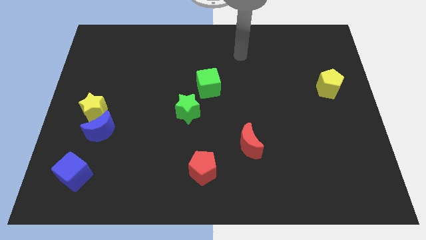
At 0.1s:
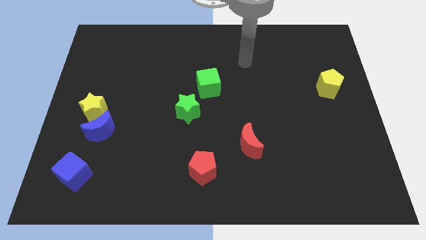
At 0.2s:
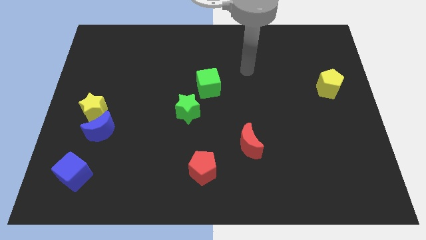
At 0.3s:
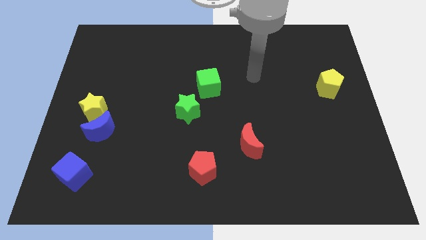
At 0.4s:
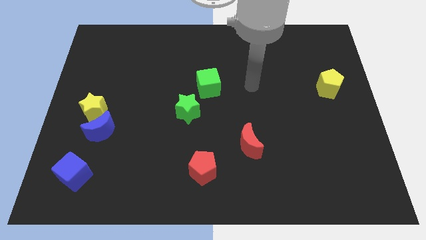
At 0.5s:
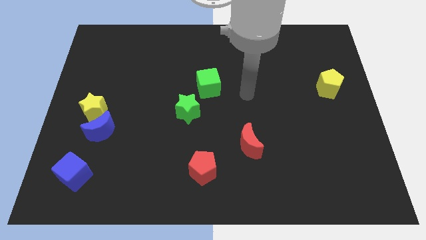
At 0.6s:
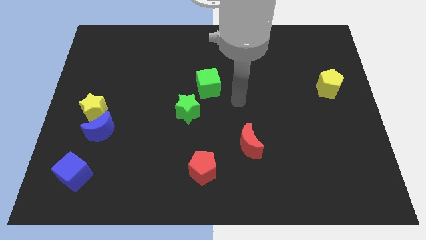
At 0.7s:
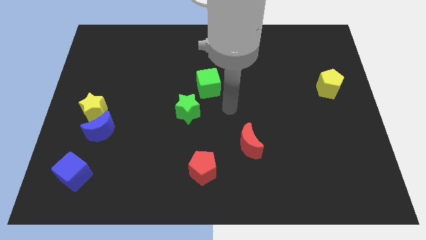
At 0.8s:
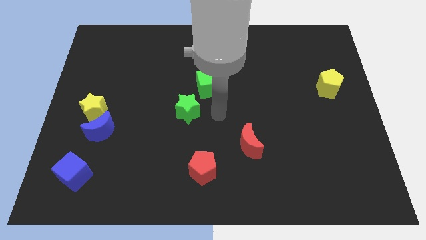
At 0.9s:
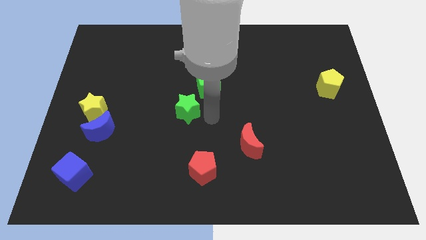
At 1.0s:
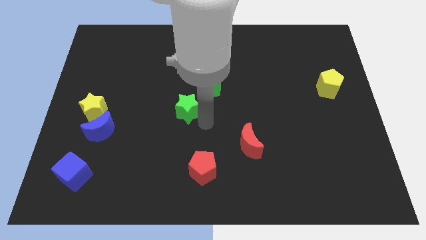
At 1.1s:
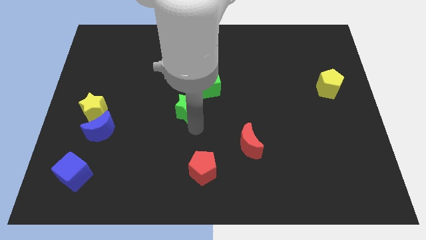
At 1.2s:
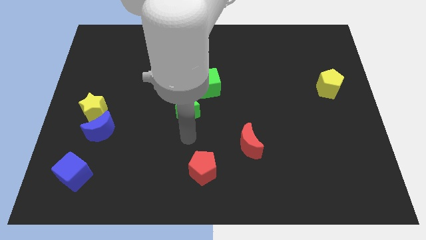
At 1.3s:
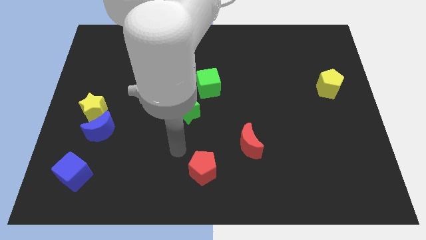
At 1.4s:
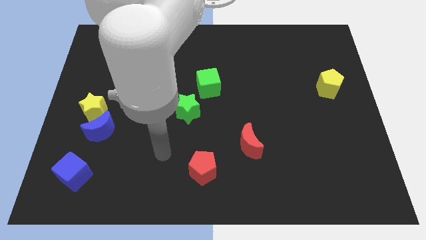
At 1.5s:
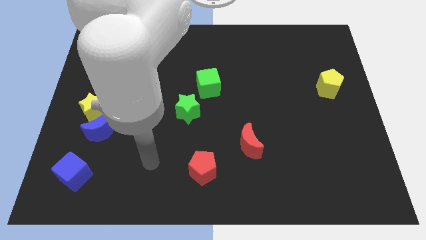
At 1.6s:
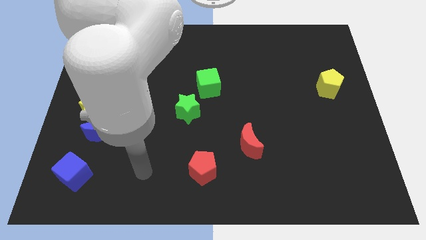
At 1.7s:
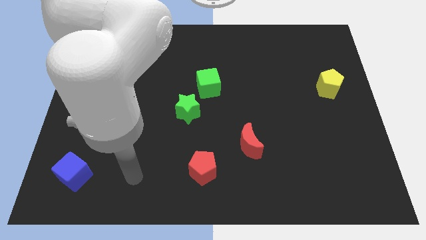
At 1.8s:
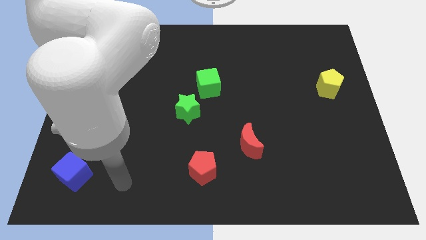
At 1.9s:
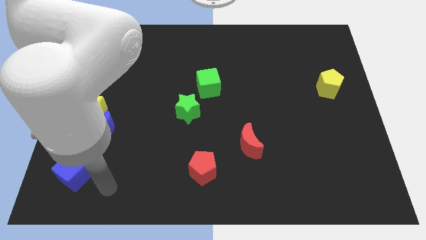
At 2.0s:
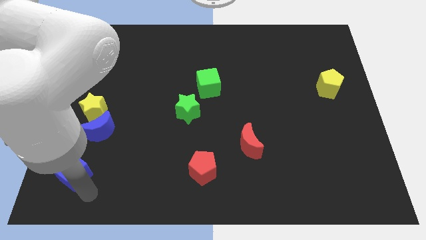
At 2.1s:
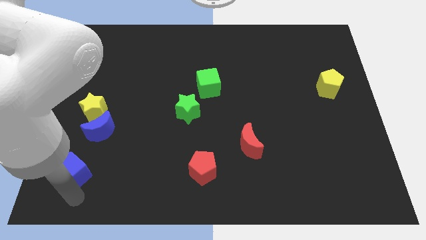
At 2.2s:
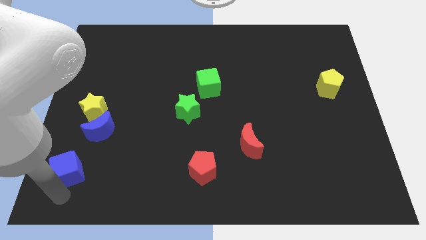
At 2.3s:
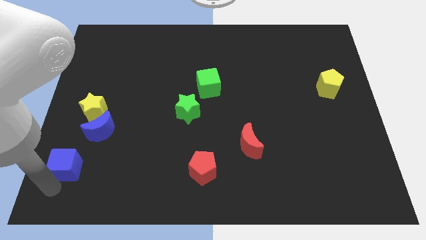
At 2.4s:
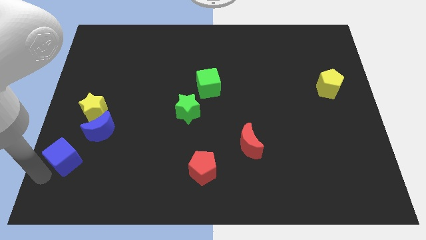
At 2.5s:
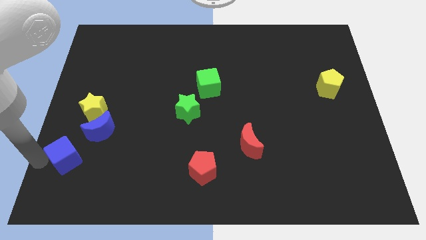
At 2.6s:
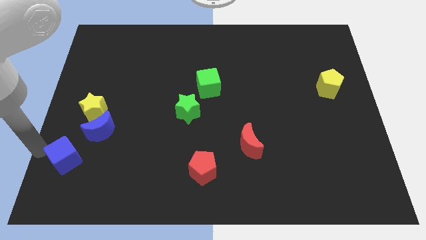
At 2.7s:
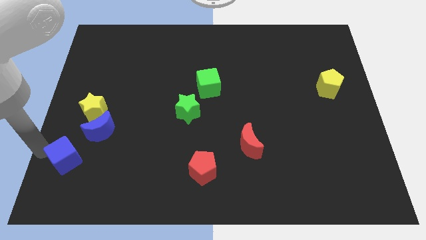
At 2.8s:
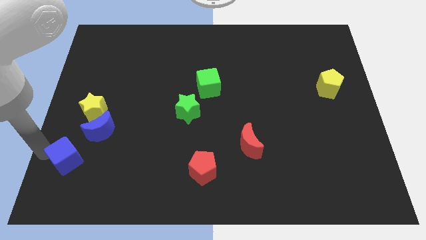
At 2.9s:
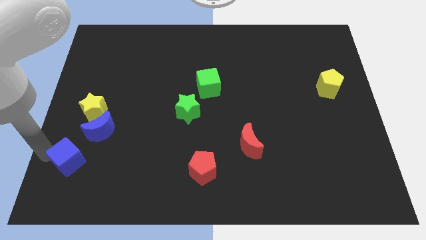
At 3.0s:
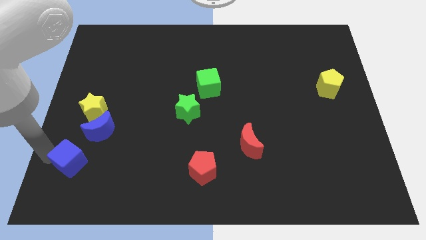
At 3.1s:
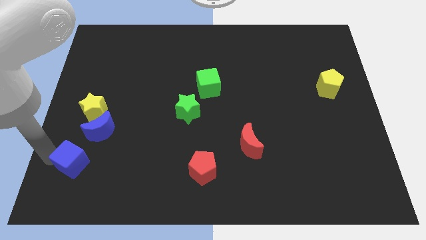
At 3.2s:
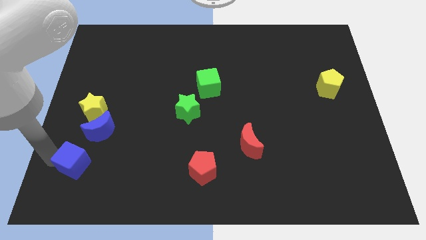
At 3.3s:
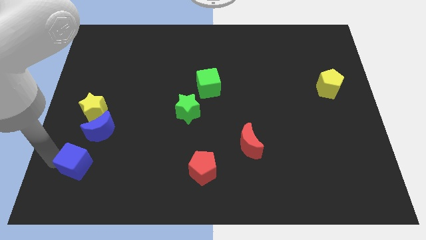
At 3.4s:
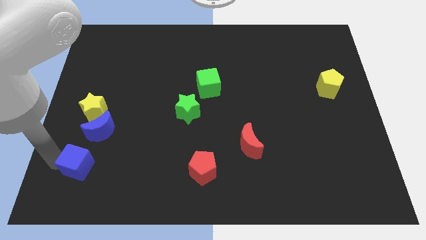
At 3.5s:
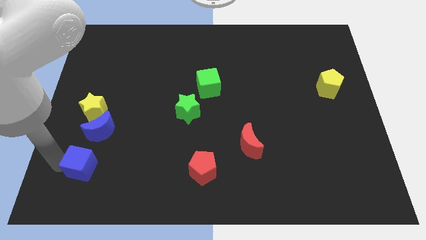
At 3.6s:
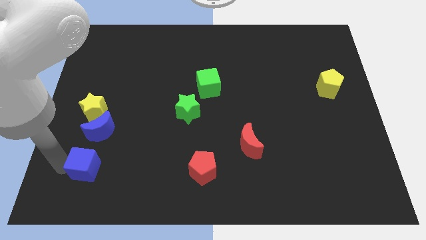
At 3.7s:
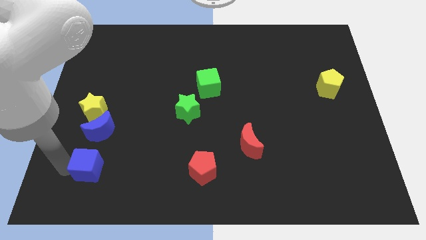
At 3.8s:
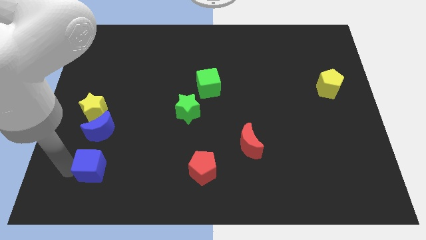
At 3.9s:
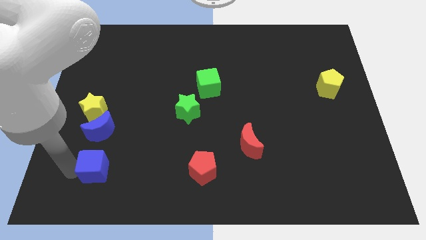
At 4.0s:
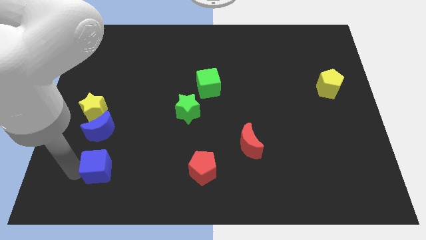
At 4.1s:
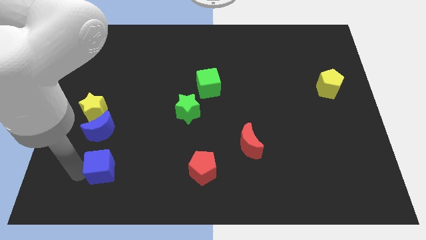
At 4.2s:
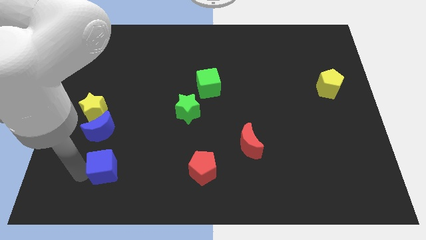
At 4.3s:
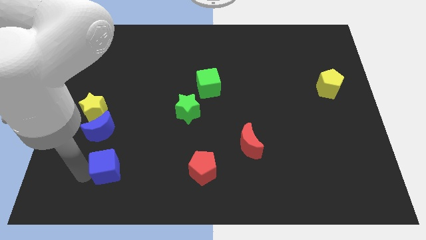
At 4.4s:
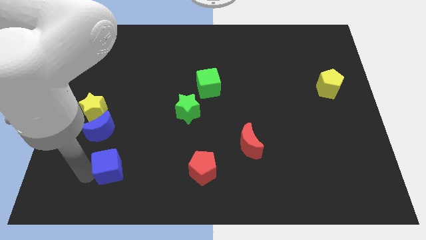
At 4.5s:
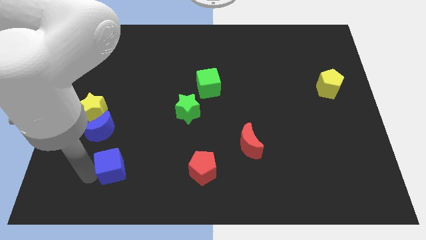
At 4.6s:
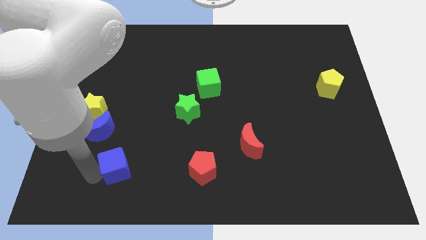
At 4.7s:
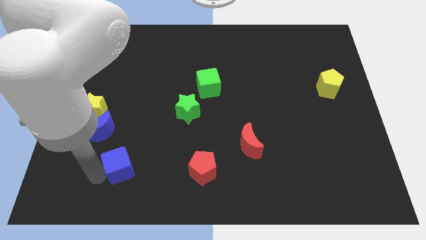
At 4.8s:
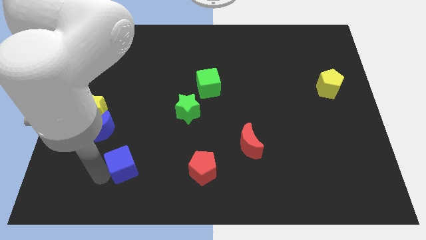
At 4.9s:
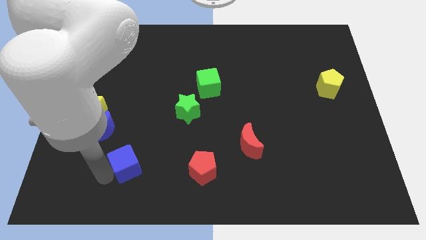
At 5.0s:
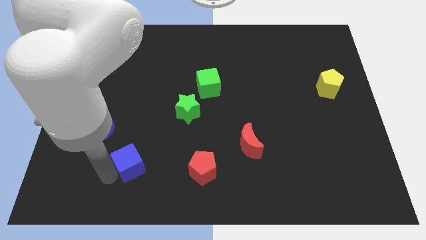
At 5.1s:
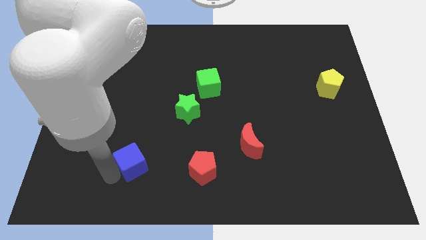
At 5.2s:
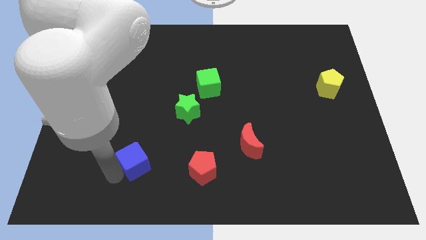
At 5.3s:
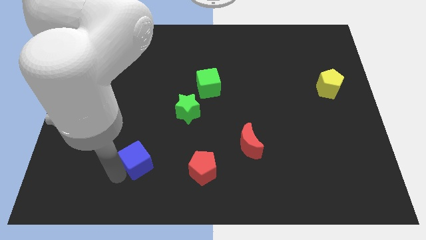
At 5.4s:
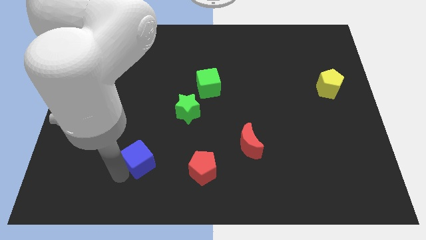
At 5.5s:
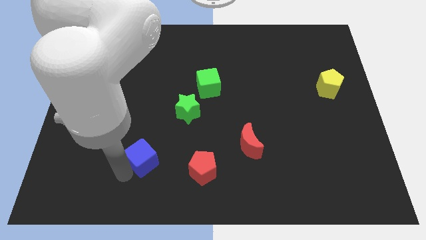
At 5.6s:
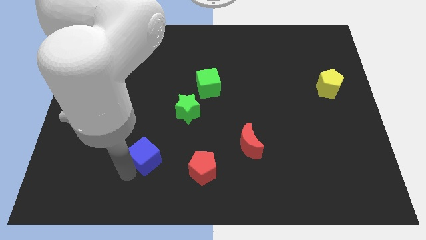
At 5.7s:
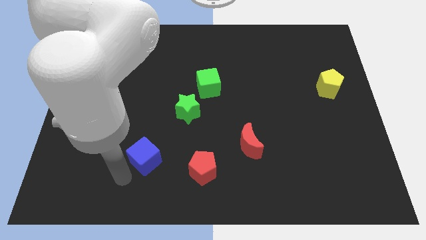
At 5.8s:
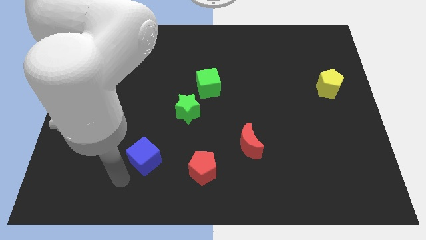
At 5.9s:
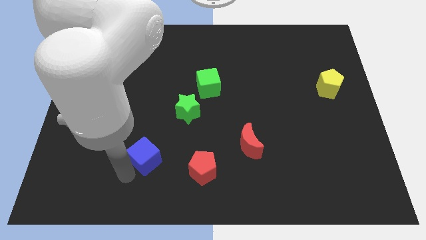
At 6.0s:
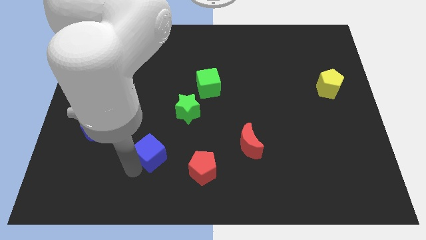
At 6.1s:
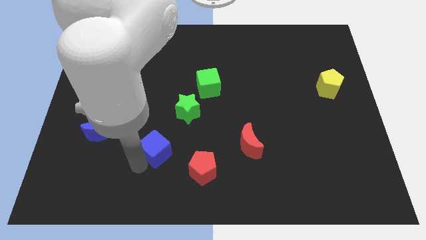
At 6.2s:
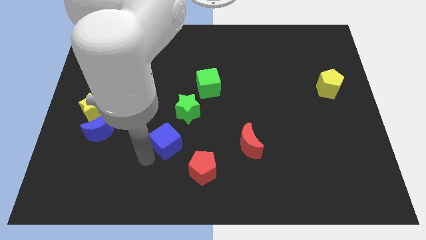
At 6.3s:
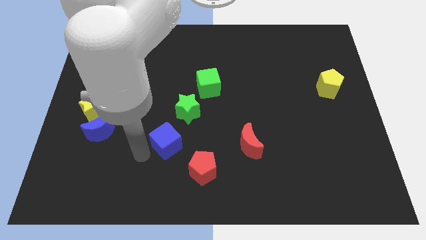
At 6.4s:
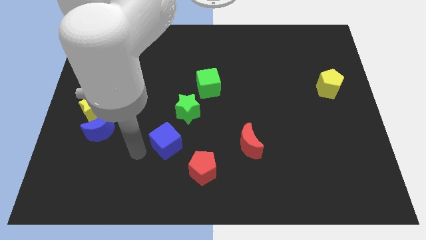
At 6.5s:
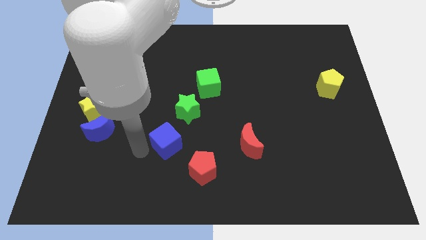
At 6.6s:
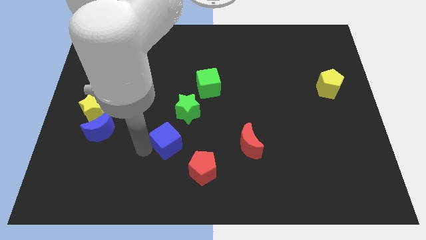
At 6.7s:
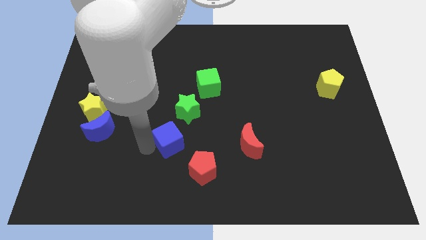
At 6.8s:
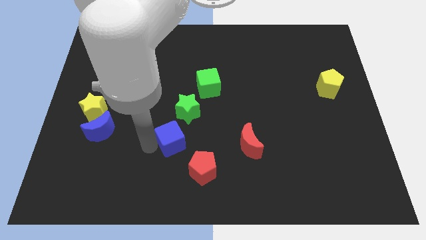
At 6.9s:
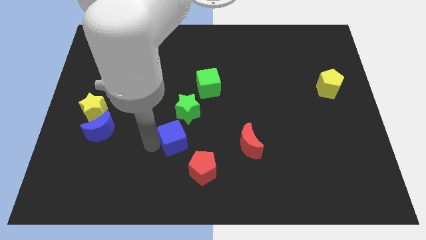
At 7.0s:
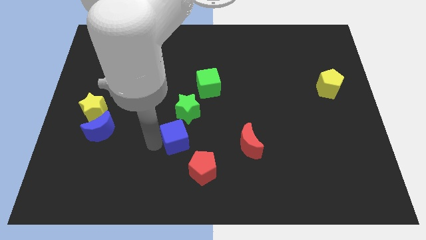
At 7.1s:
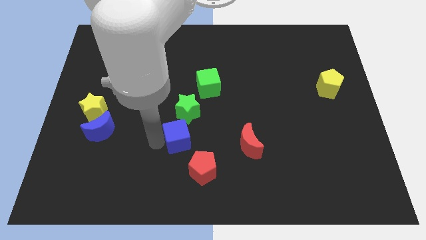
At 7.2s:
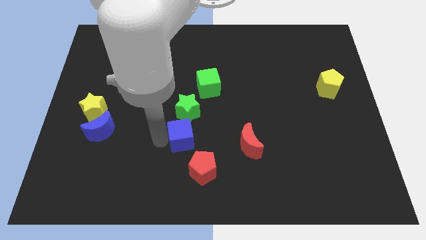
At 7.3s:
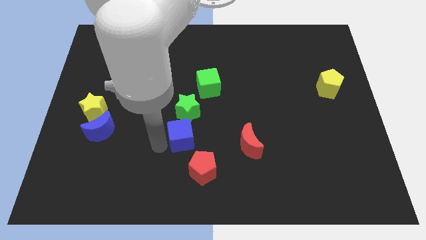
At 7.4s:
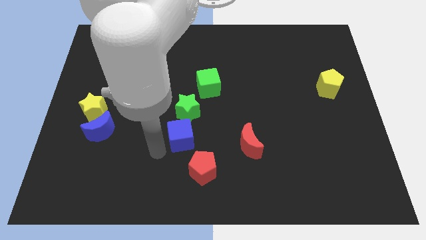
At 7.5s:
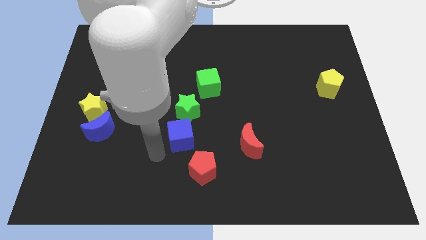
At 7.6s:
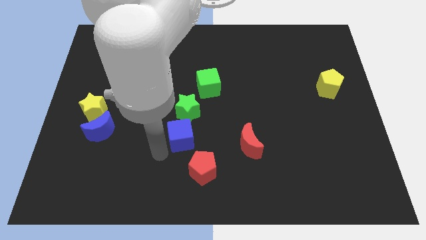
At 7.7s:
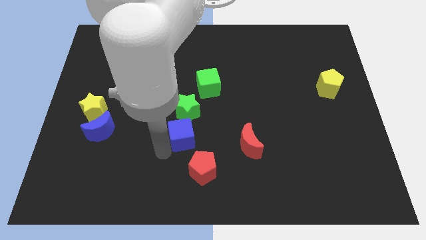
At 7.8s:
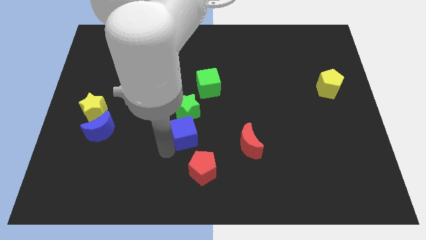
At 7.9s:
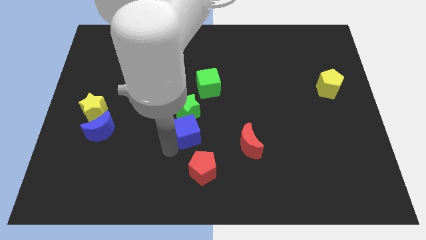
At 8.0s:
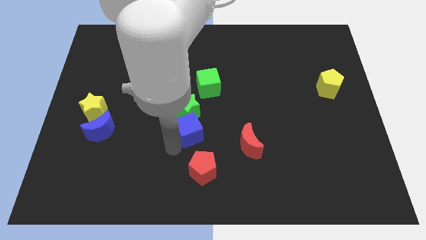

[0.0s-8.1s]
push the blue cube to the bottom side of the green cube
